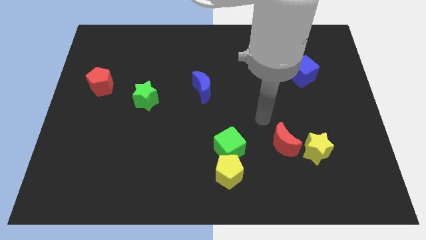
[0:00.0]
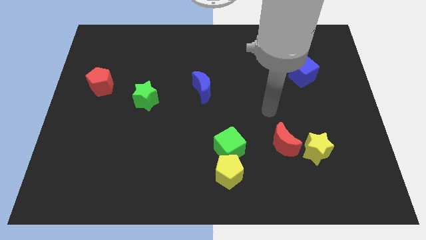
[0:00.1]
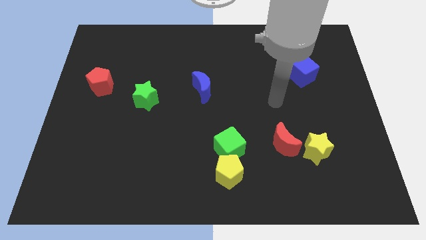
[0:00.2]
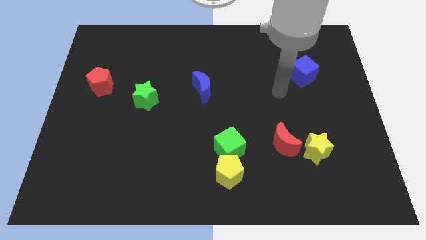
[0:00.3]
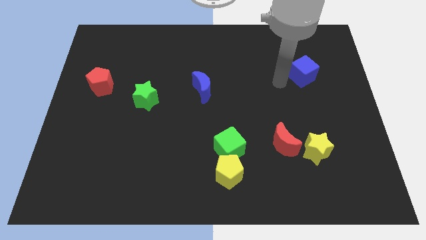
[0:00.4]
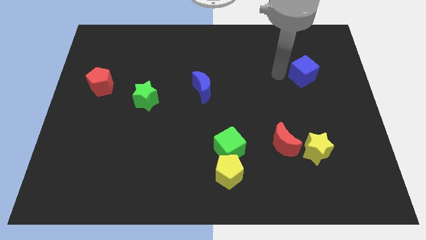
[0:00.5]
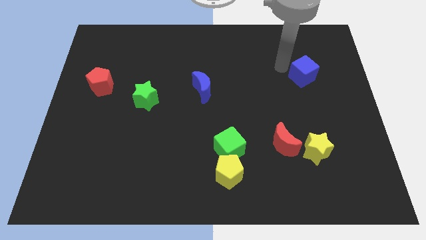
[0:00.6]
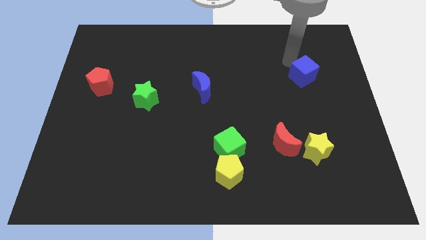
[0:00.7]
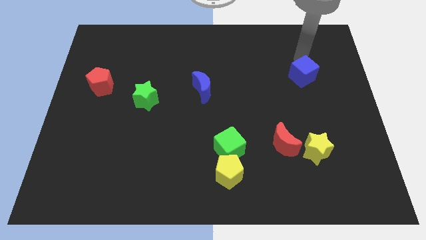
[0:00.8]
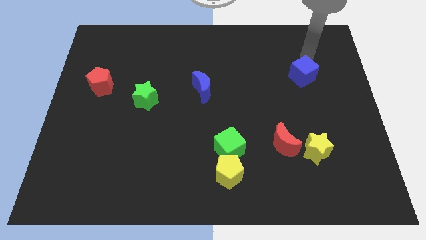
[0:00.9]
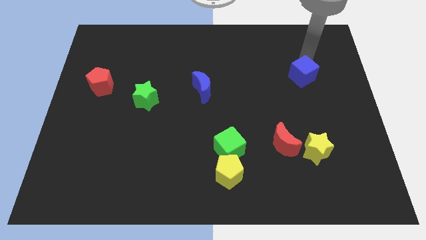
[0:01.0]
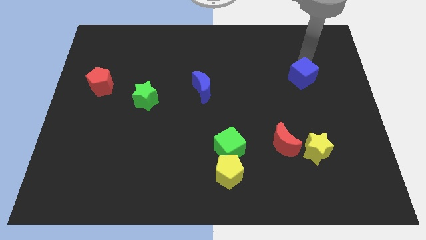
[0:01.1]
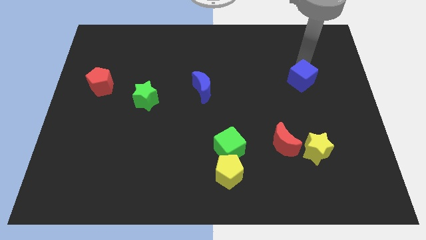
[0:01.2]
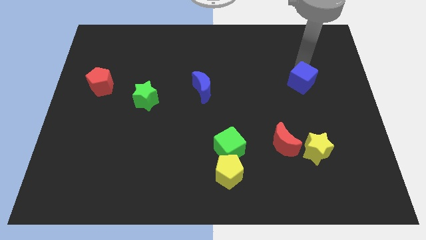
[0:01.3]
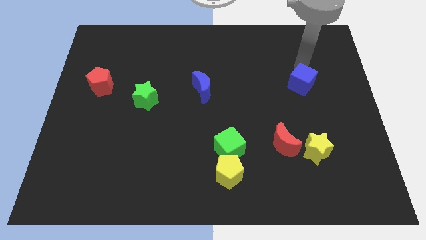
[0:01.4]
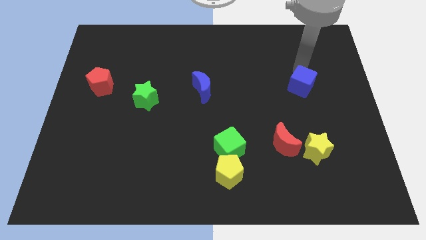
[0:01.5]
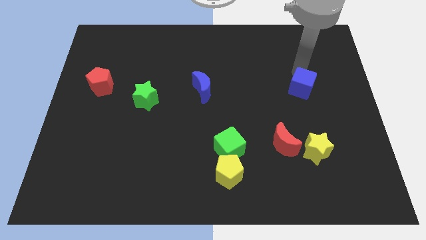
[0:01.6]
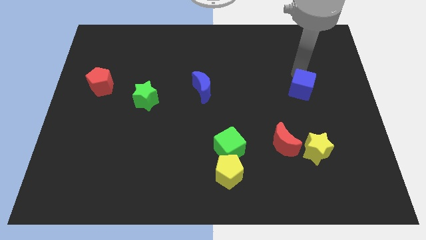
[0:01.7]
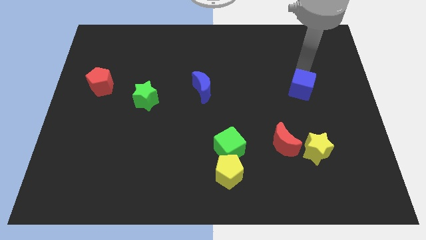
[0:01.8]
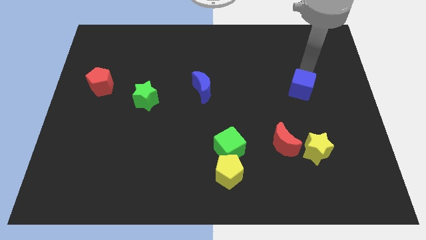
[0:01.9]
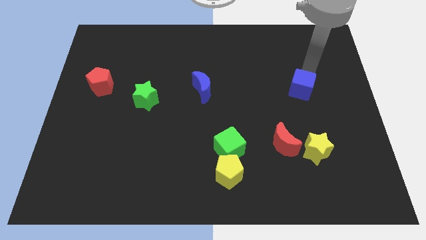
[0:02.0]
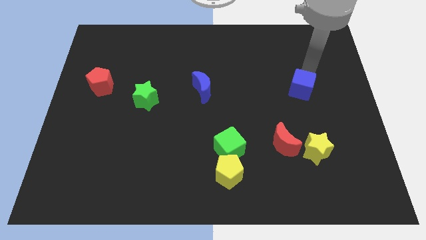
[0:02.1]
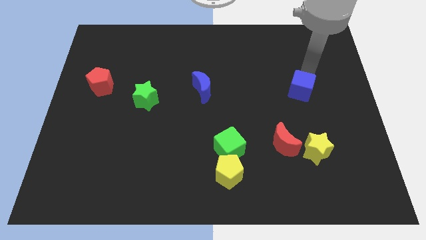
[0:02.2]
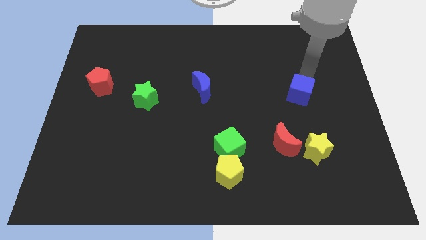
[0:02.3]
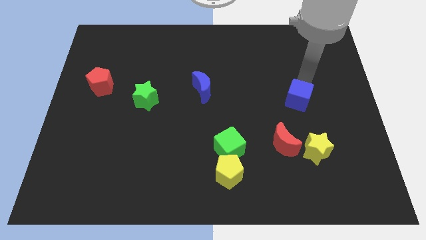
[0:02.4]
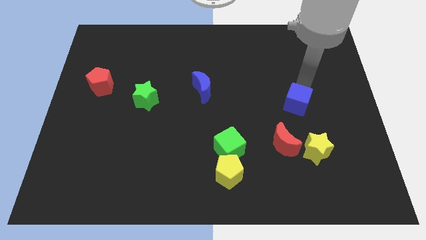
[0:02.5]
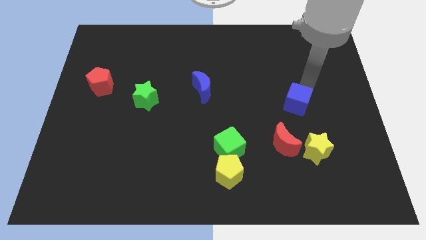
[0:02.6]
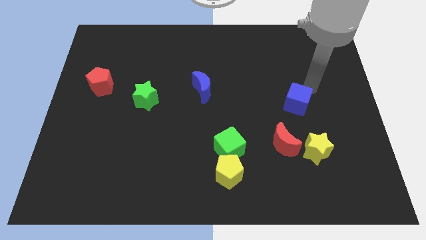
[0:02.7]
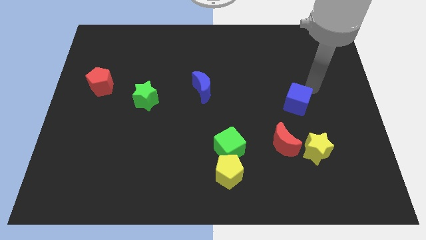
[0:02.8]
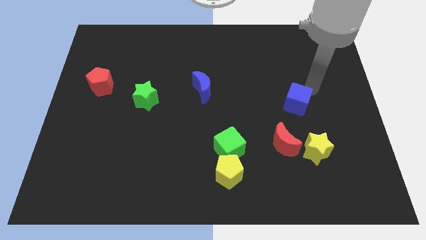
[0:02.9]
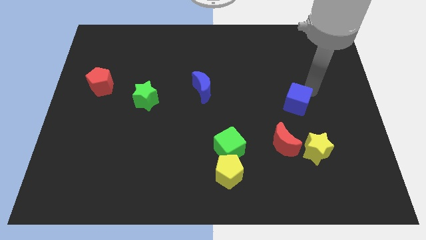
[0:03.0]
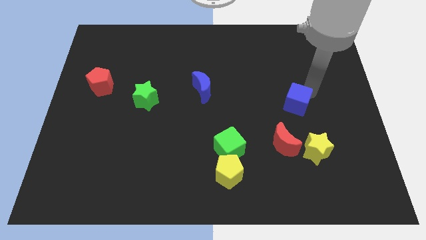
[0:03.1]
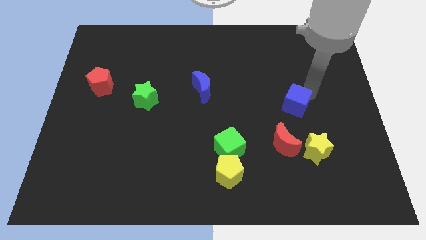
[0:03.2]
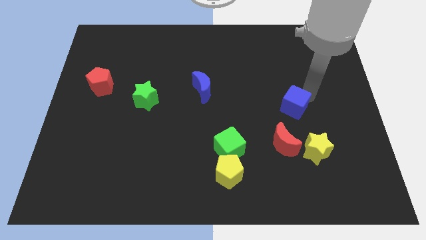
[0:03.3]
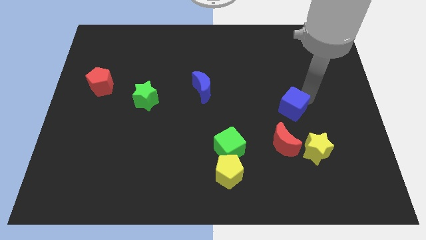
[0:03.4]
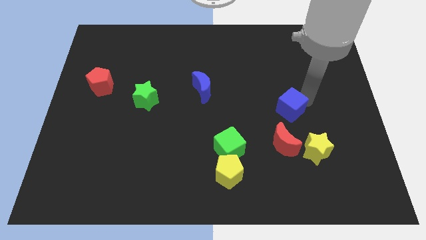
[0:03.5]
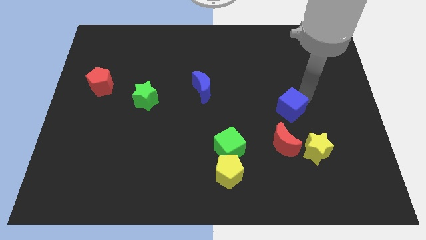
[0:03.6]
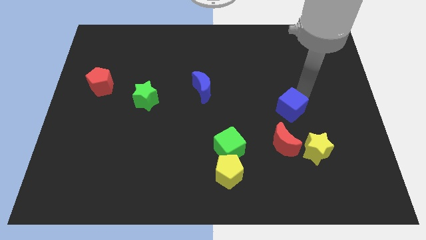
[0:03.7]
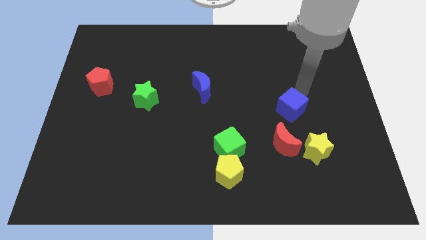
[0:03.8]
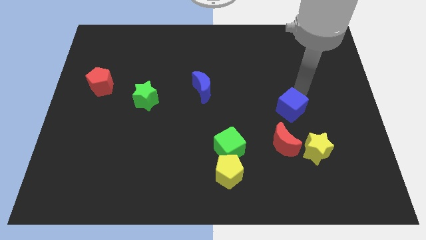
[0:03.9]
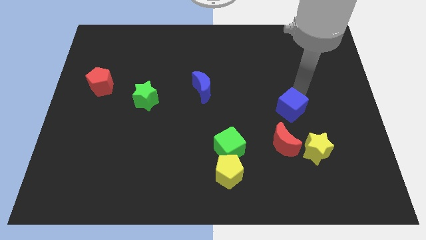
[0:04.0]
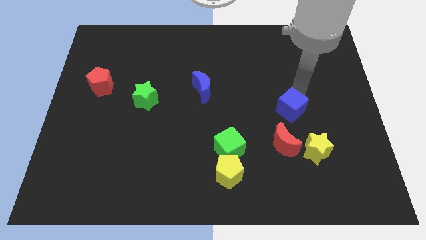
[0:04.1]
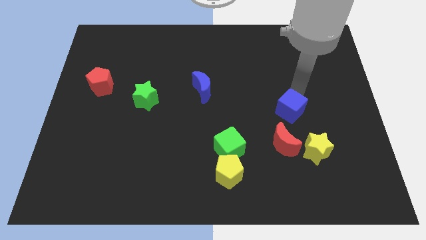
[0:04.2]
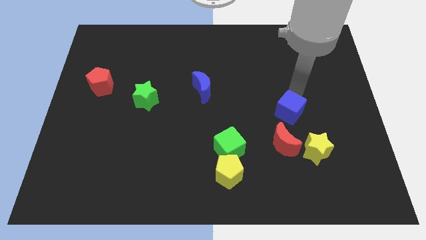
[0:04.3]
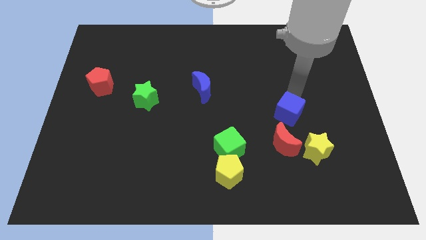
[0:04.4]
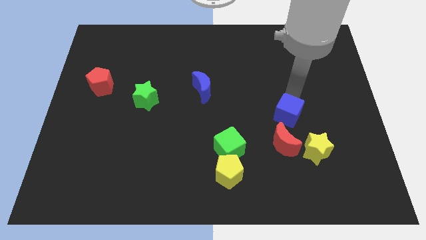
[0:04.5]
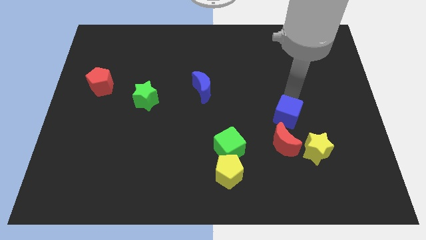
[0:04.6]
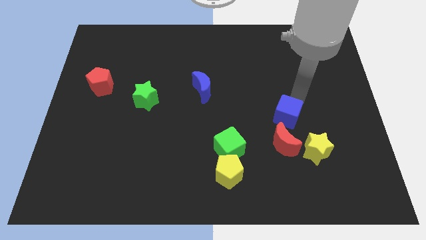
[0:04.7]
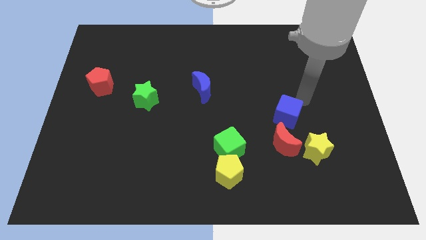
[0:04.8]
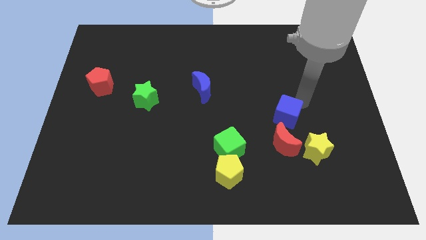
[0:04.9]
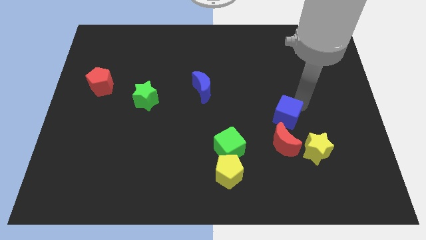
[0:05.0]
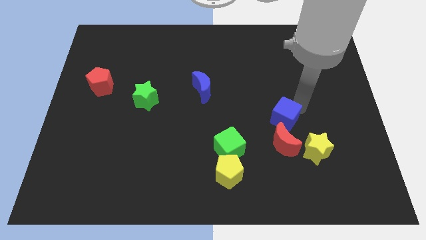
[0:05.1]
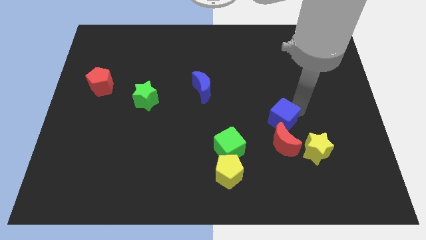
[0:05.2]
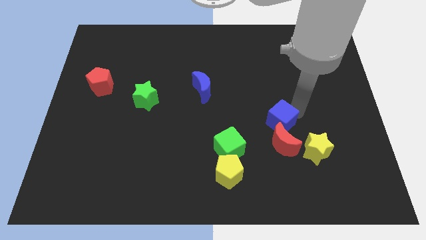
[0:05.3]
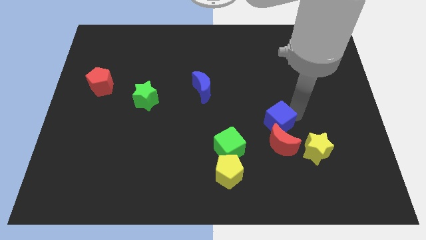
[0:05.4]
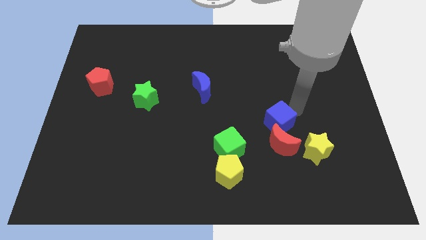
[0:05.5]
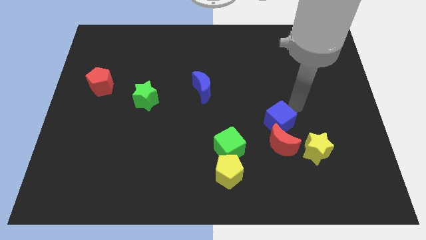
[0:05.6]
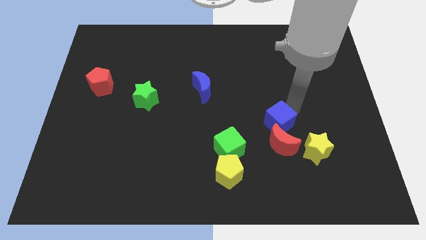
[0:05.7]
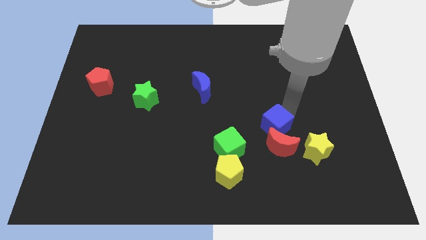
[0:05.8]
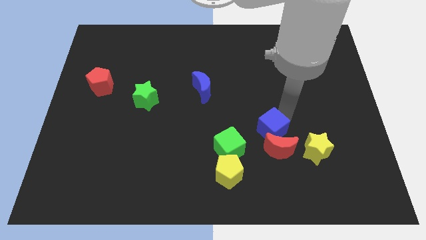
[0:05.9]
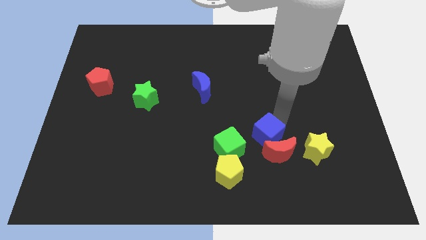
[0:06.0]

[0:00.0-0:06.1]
push the blue cube diagonally up and to the right of the yellow pentagon

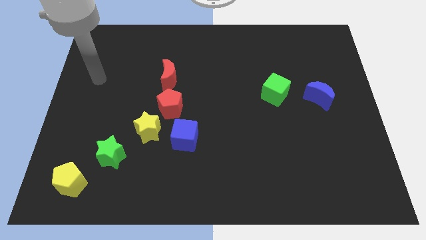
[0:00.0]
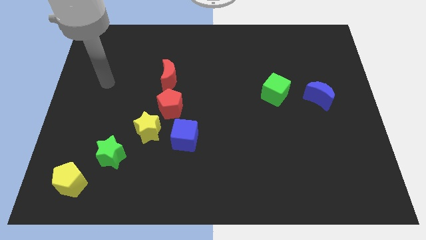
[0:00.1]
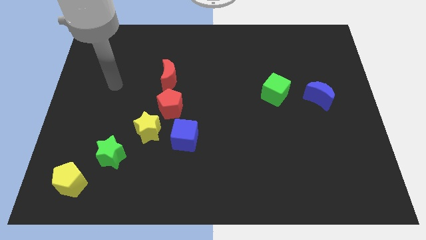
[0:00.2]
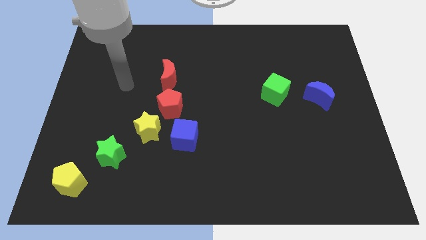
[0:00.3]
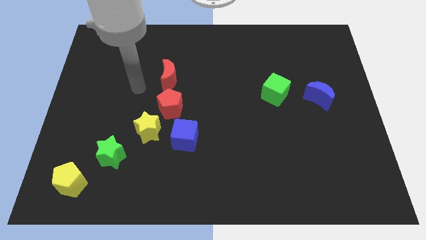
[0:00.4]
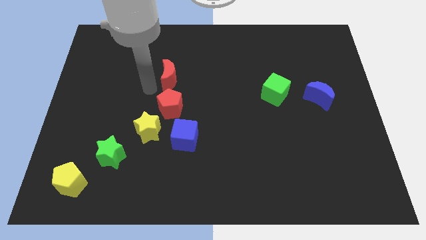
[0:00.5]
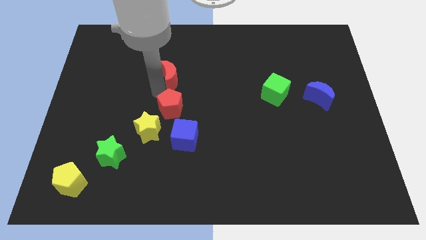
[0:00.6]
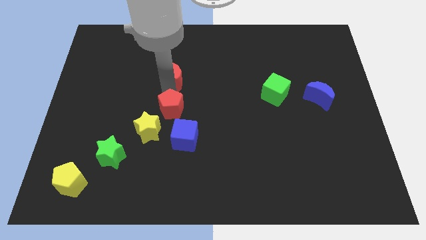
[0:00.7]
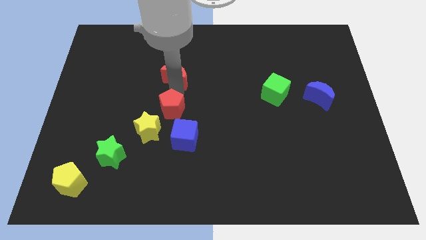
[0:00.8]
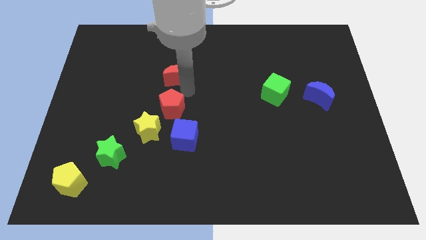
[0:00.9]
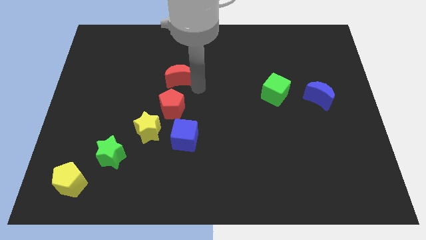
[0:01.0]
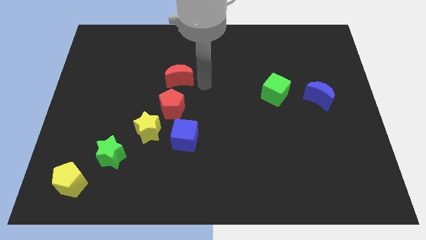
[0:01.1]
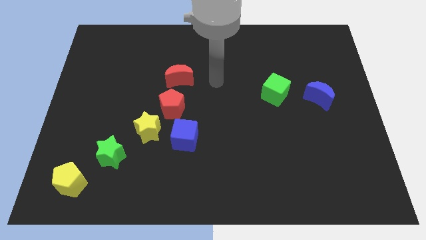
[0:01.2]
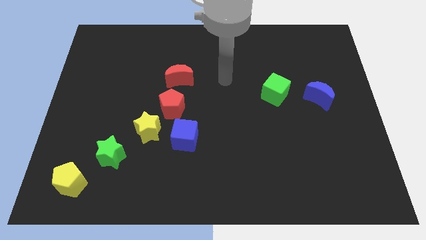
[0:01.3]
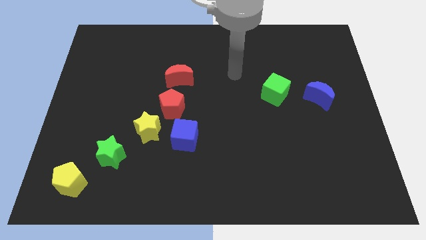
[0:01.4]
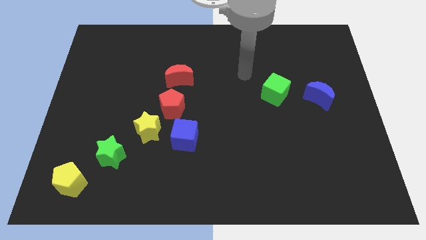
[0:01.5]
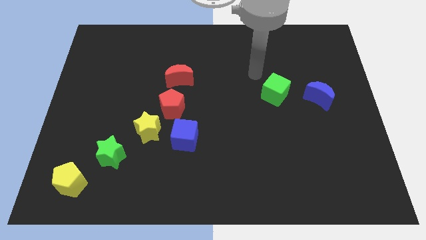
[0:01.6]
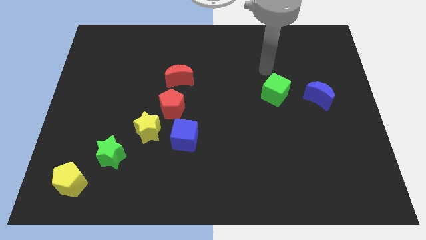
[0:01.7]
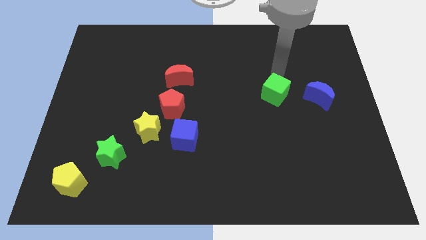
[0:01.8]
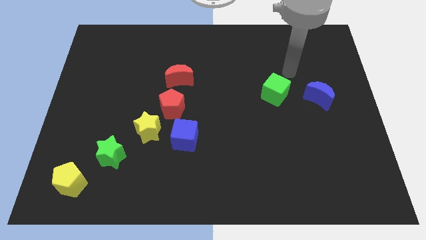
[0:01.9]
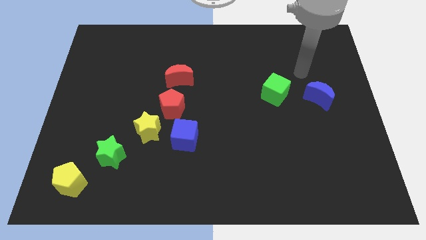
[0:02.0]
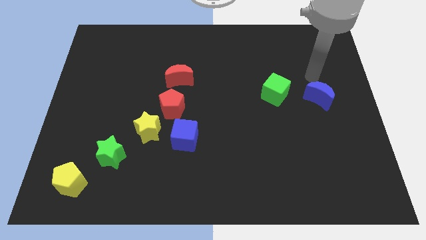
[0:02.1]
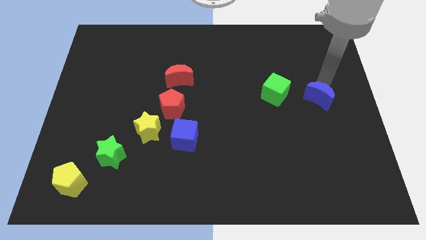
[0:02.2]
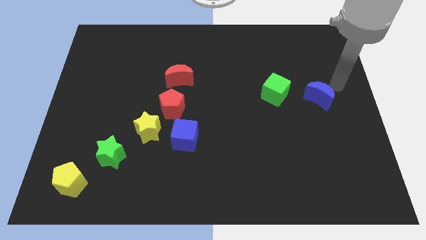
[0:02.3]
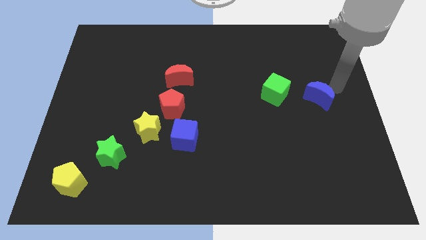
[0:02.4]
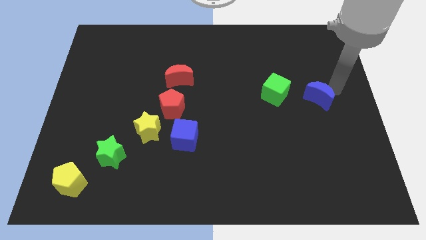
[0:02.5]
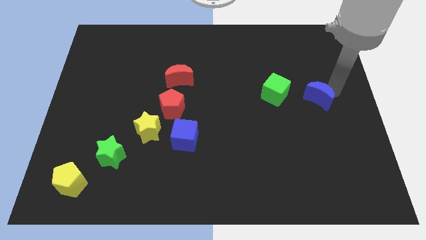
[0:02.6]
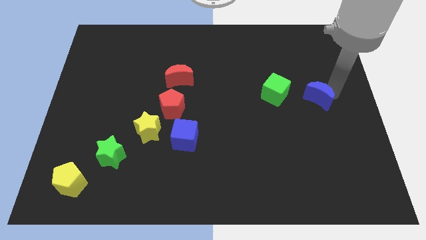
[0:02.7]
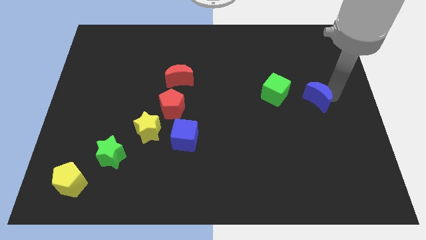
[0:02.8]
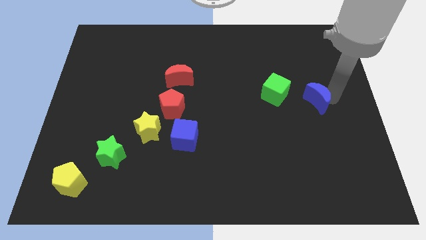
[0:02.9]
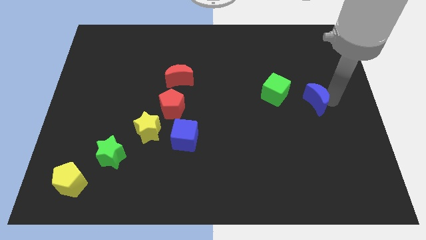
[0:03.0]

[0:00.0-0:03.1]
put the blue moon to the bottom right side of the green cube
